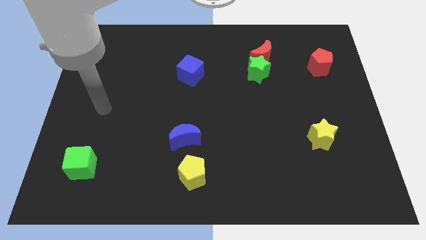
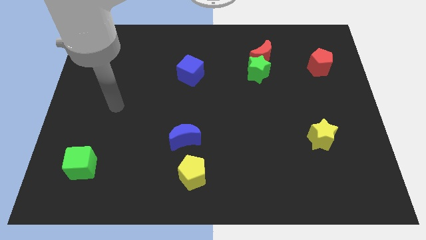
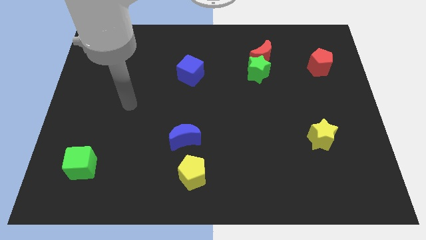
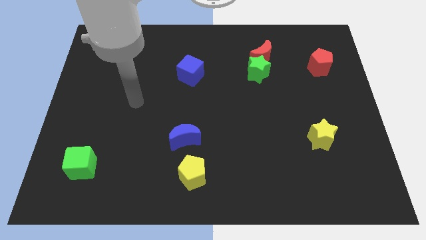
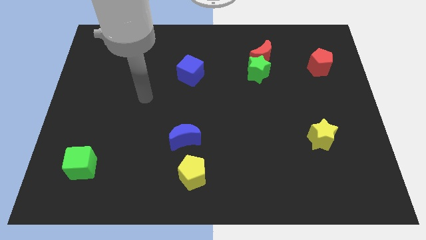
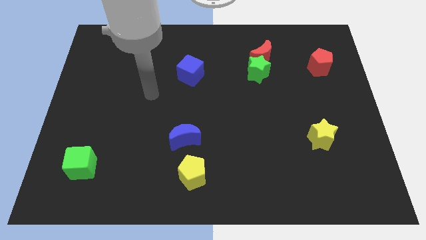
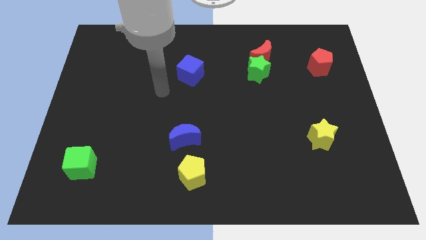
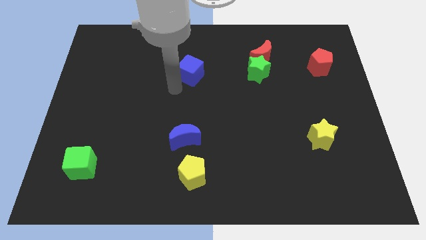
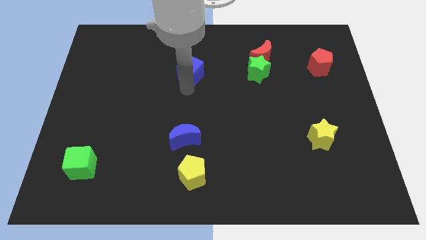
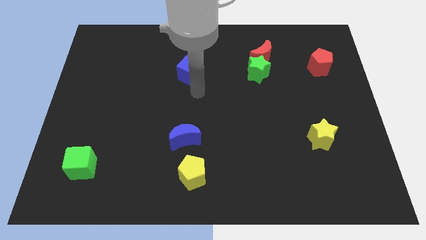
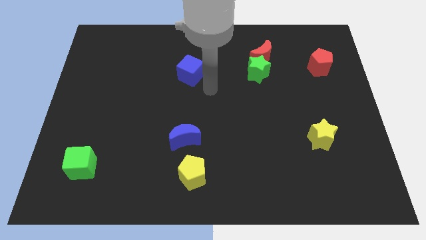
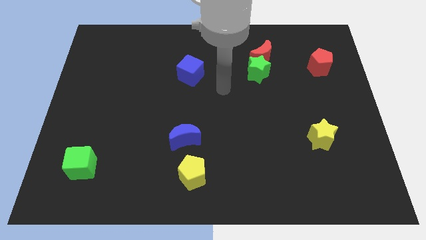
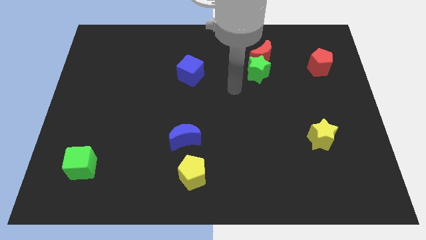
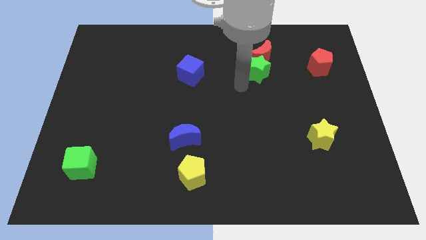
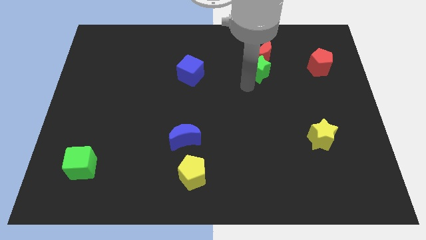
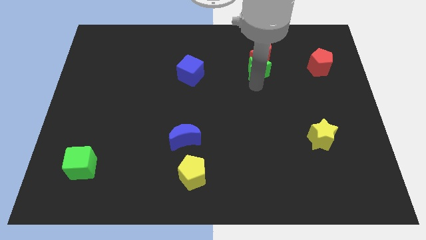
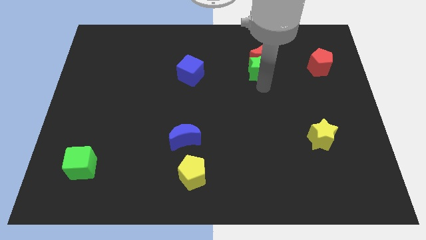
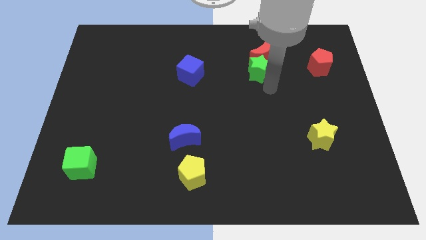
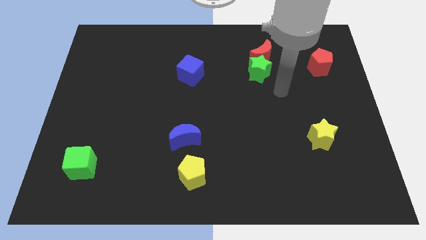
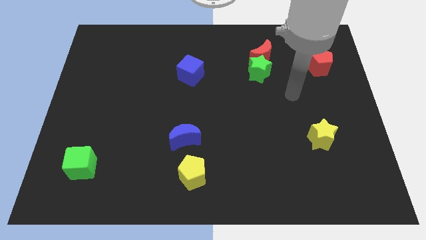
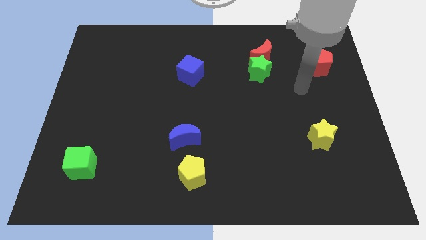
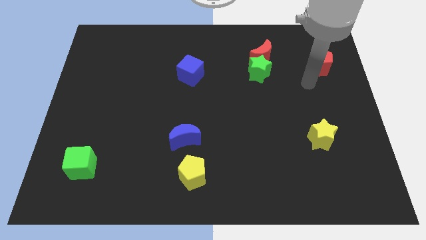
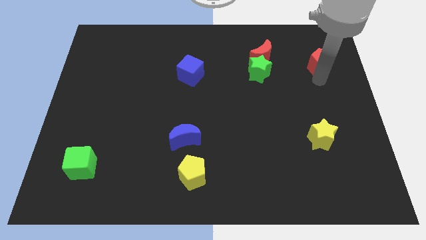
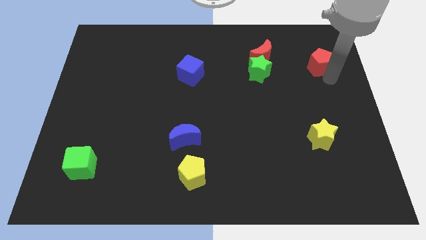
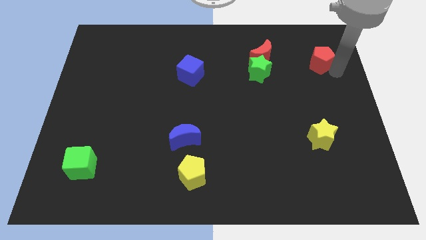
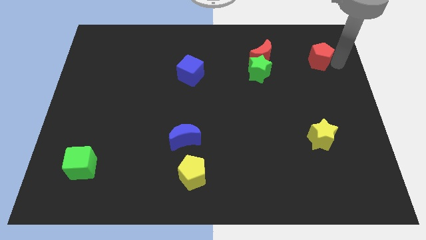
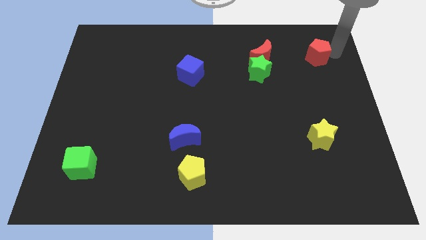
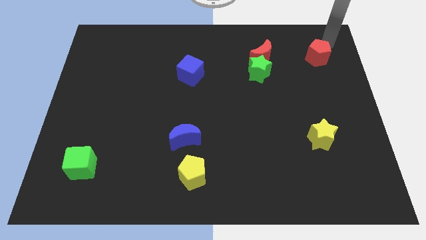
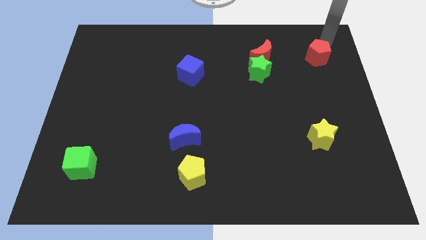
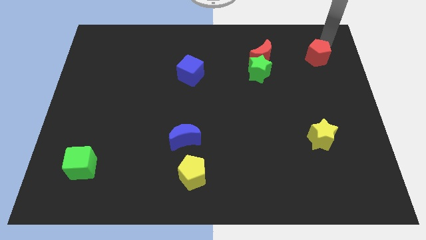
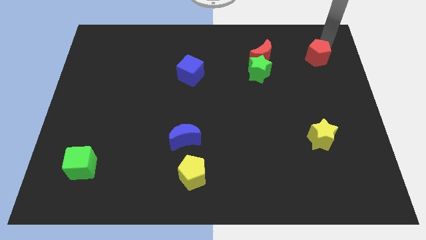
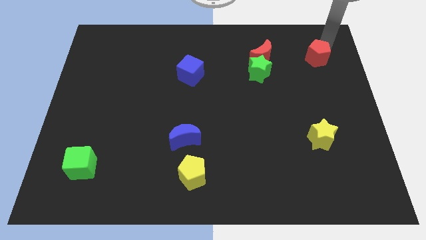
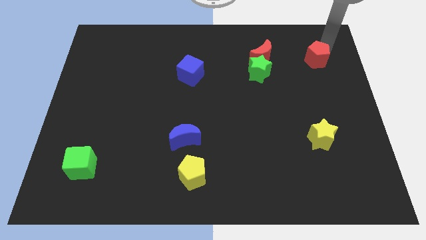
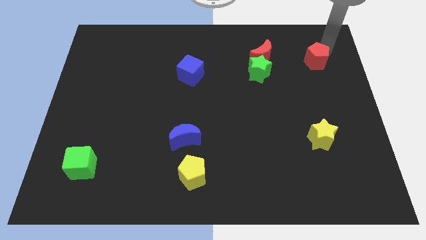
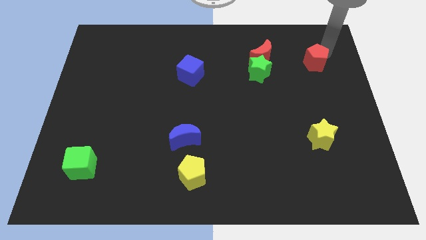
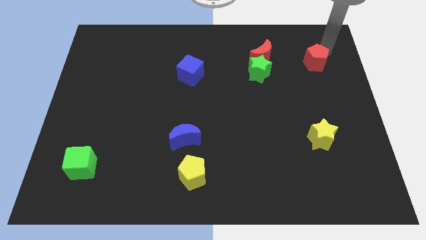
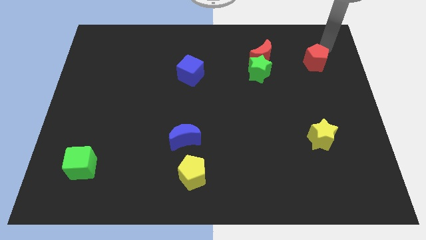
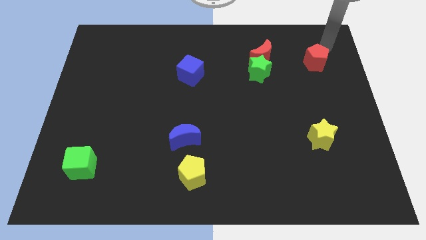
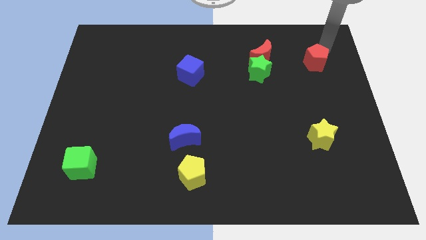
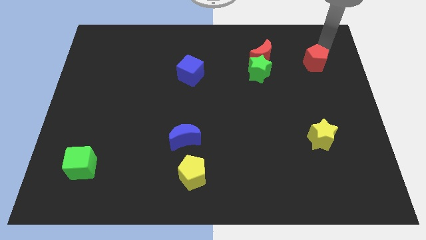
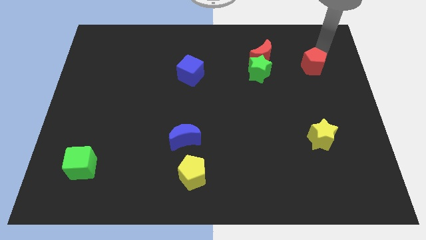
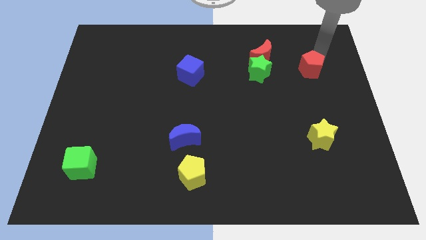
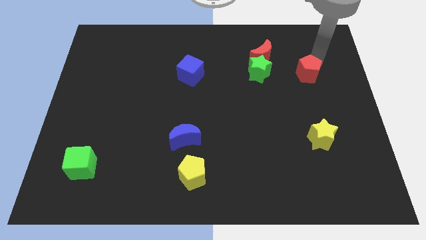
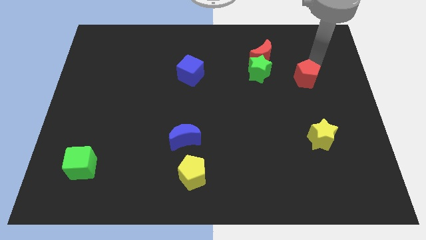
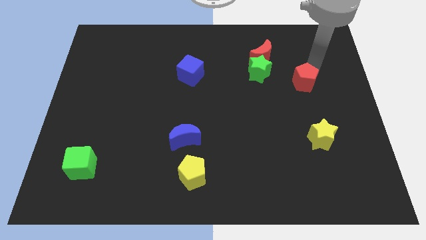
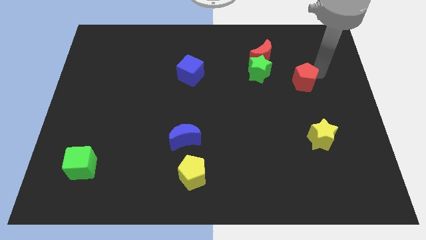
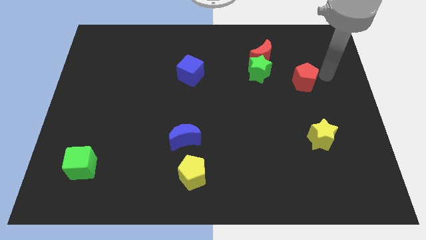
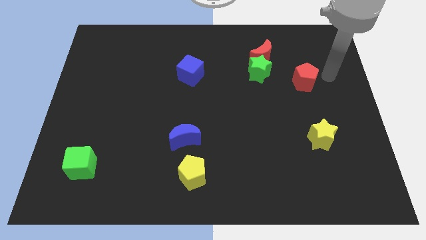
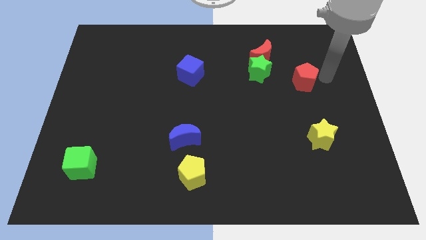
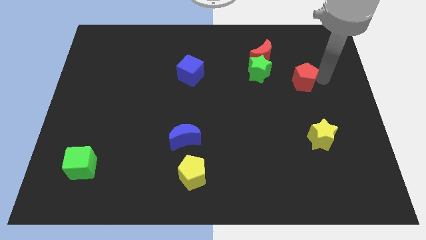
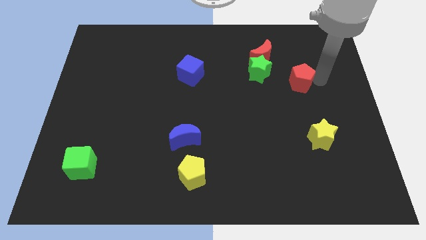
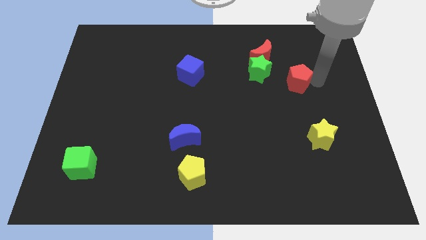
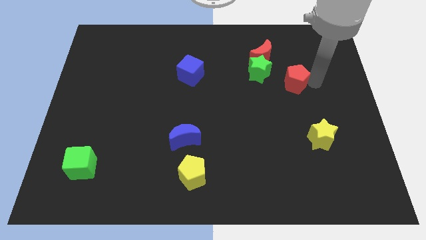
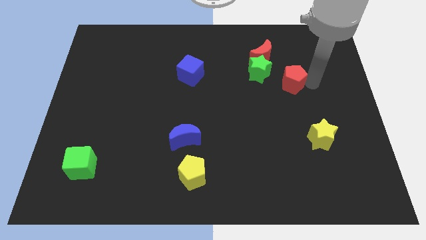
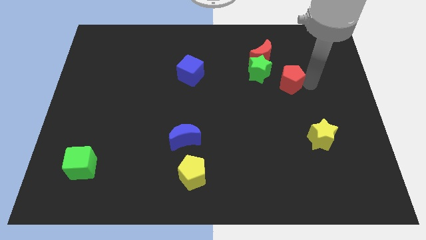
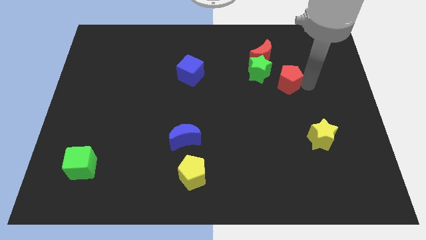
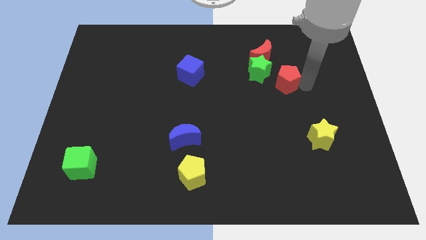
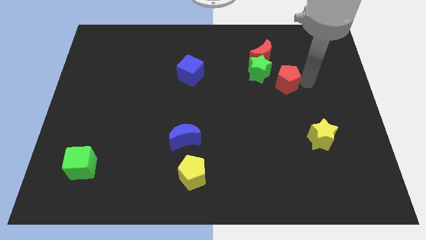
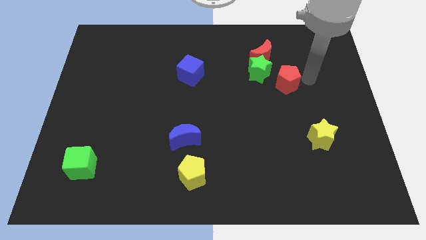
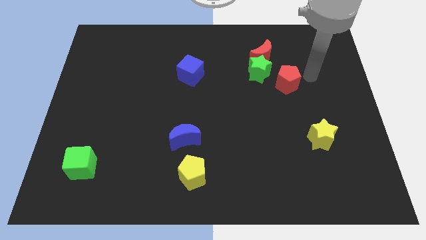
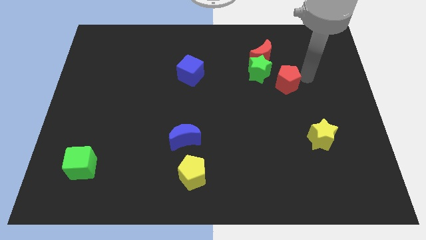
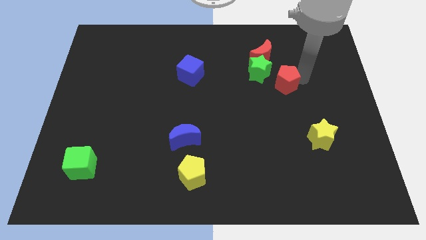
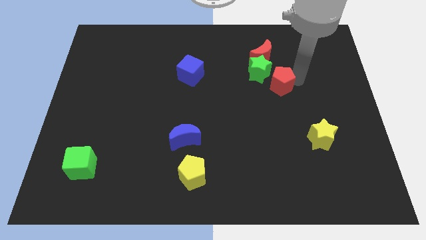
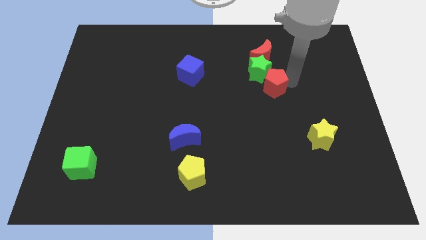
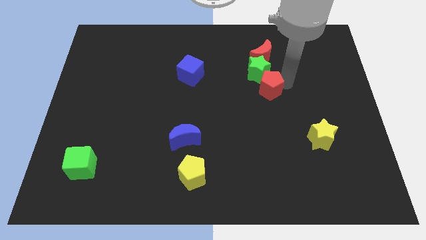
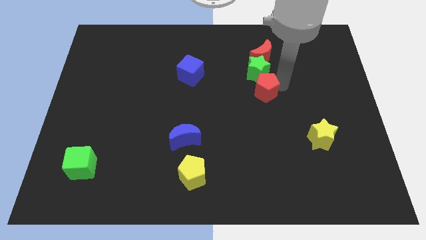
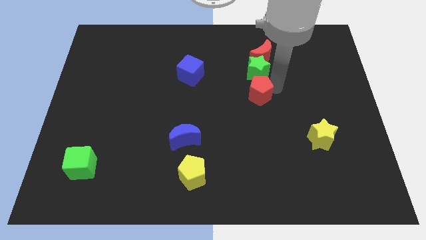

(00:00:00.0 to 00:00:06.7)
slide the red pentagon to the middle of the board
